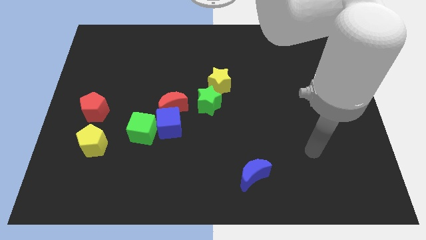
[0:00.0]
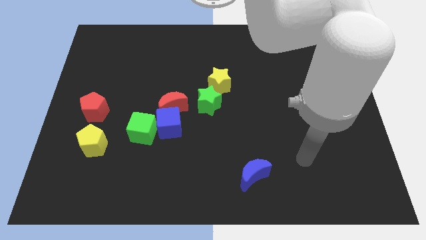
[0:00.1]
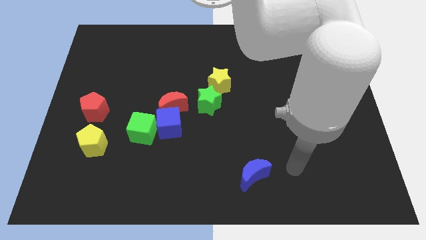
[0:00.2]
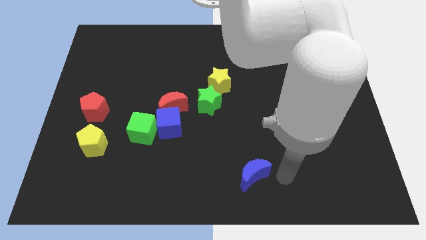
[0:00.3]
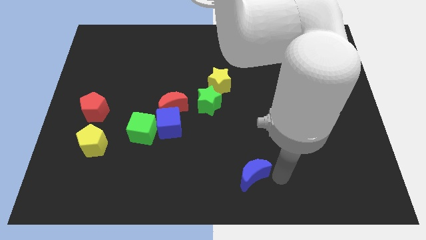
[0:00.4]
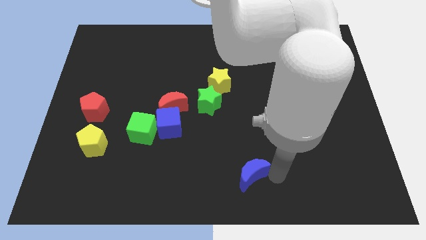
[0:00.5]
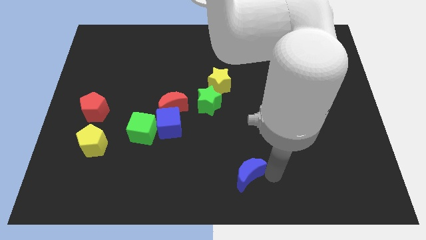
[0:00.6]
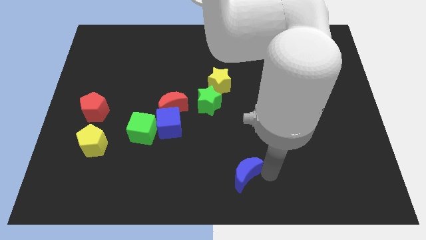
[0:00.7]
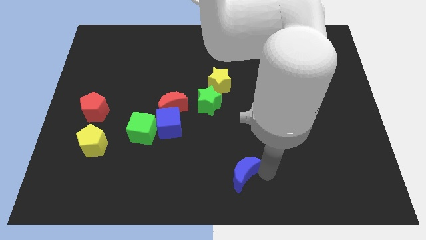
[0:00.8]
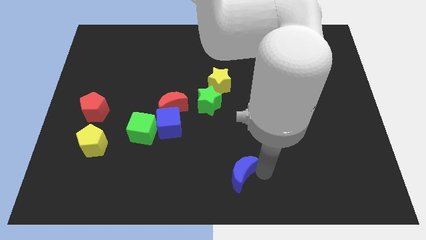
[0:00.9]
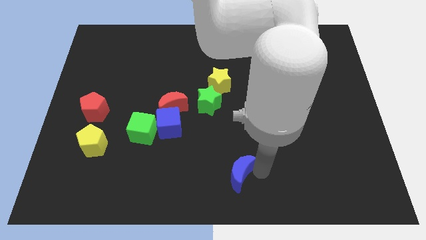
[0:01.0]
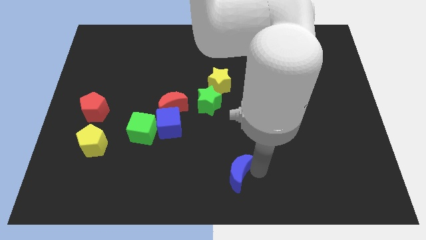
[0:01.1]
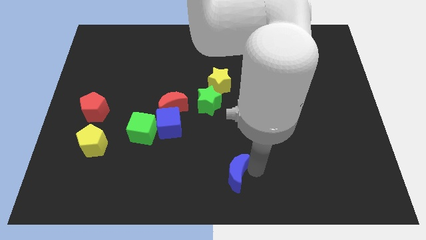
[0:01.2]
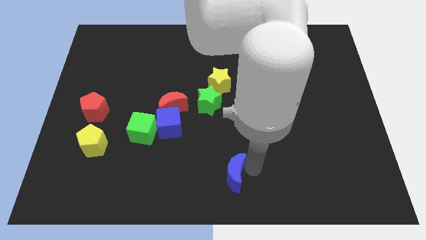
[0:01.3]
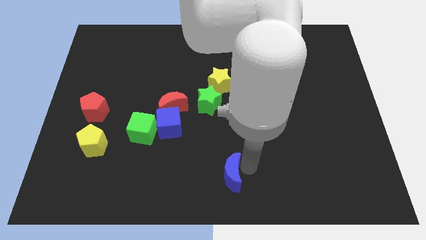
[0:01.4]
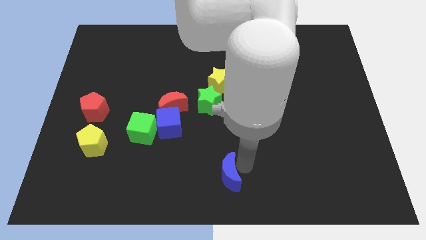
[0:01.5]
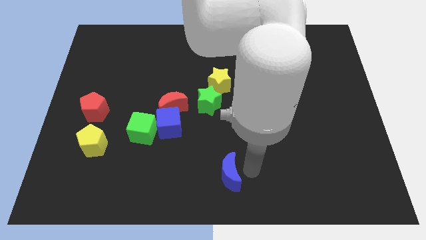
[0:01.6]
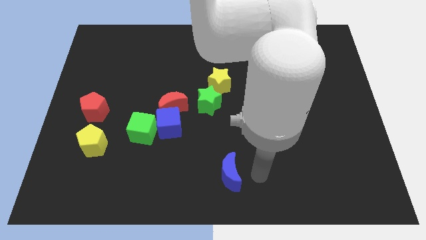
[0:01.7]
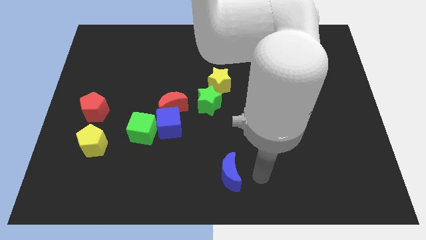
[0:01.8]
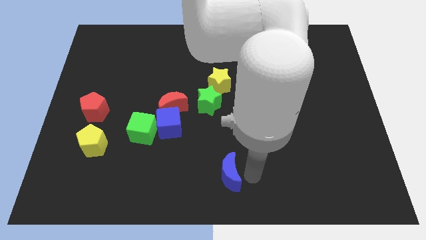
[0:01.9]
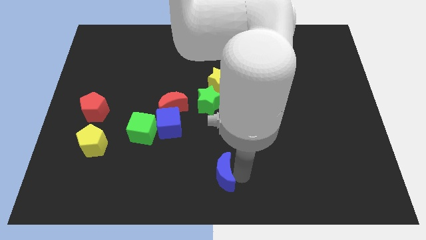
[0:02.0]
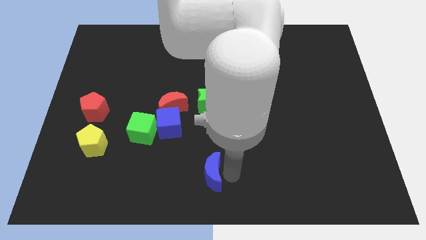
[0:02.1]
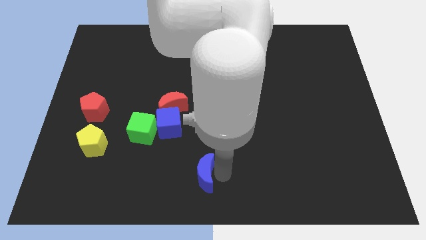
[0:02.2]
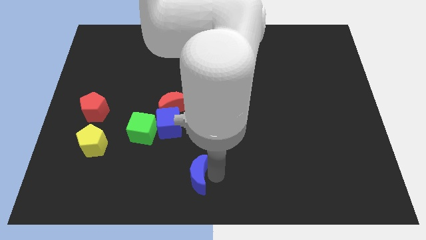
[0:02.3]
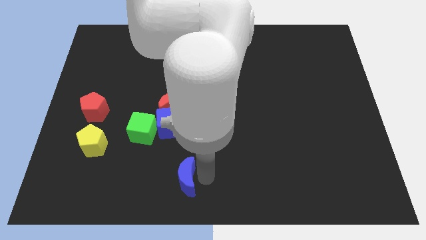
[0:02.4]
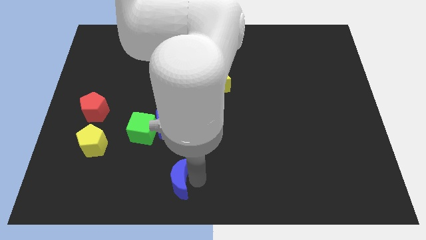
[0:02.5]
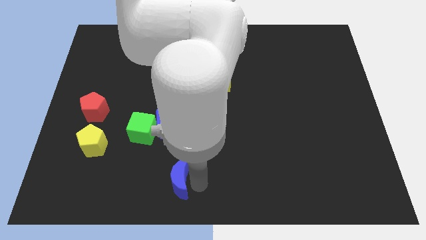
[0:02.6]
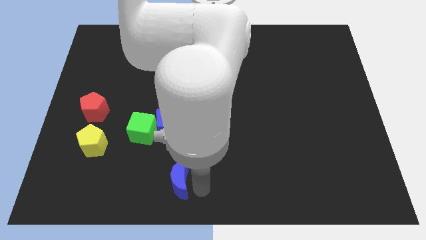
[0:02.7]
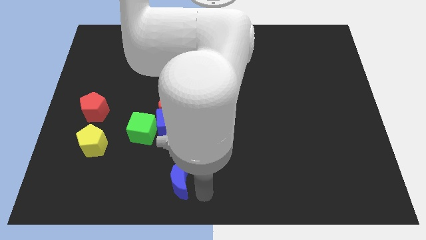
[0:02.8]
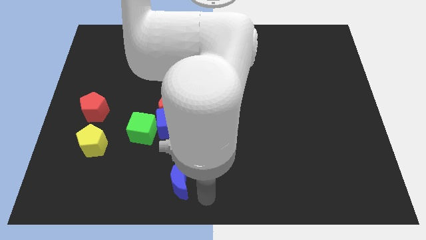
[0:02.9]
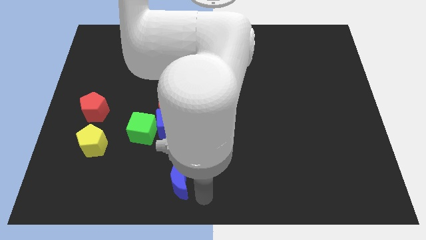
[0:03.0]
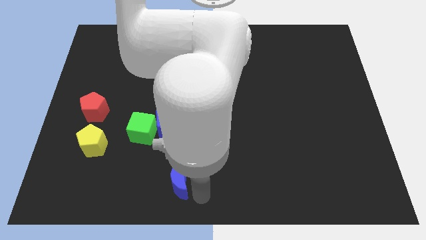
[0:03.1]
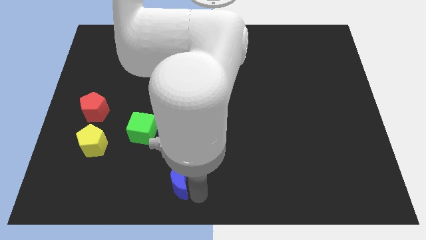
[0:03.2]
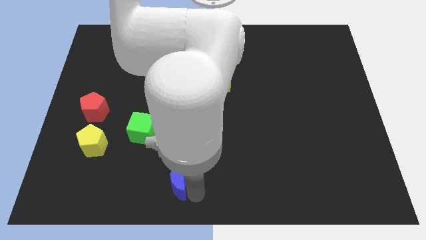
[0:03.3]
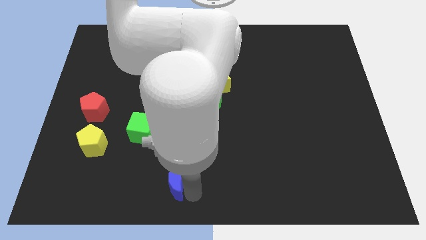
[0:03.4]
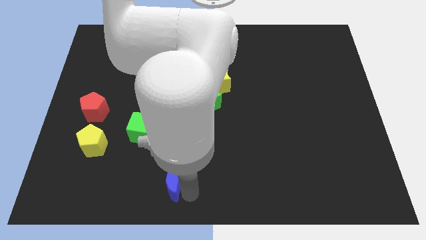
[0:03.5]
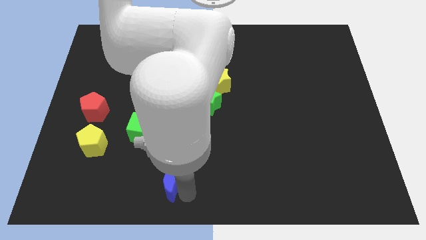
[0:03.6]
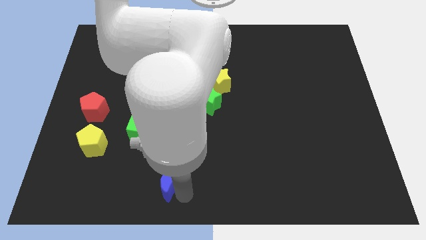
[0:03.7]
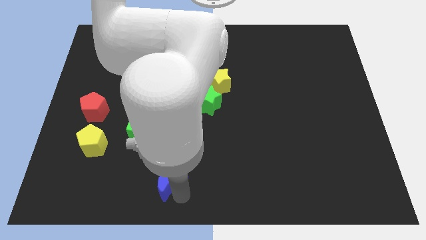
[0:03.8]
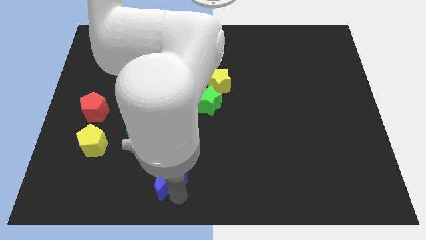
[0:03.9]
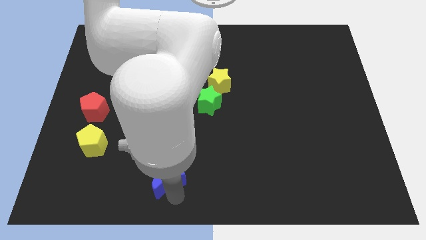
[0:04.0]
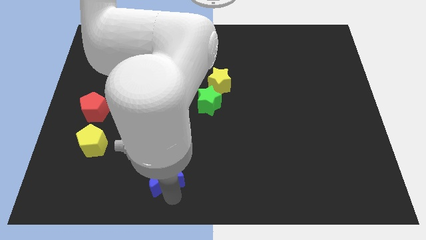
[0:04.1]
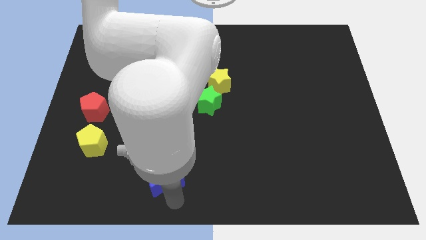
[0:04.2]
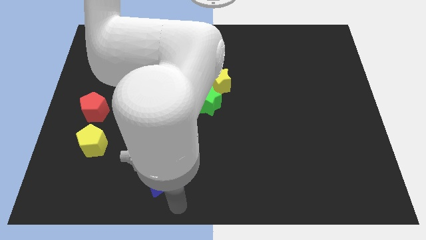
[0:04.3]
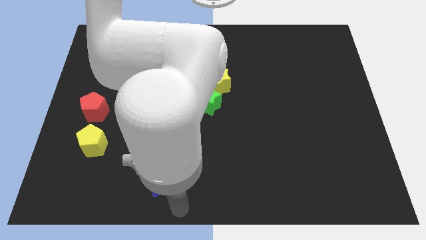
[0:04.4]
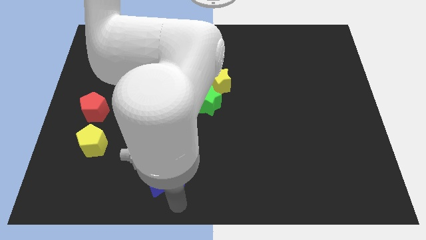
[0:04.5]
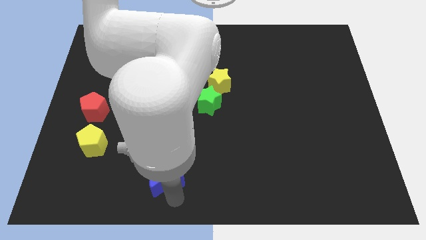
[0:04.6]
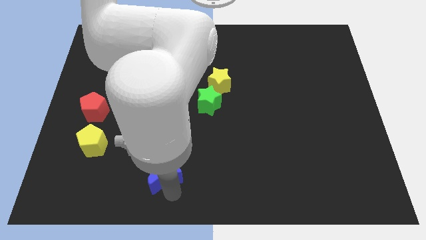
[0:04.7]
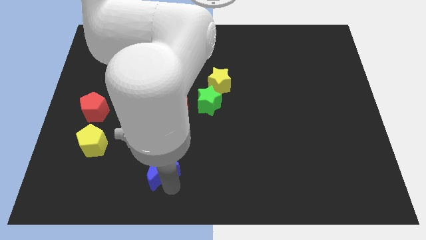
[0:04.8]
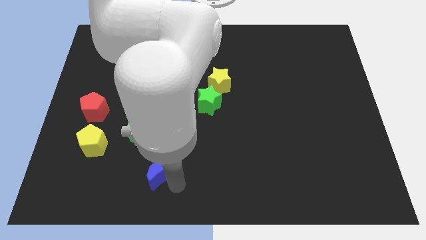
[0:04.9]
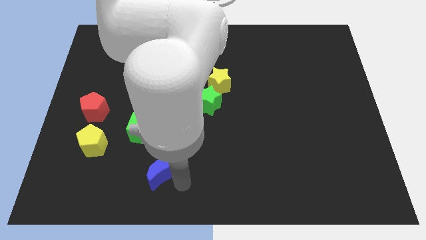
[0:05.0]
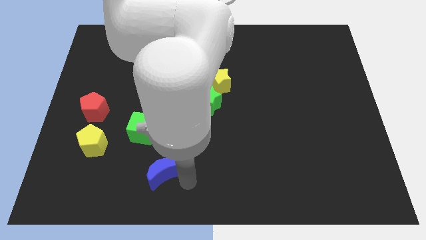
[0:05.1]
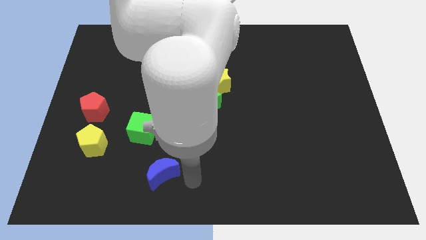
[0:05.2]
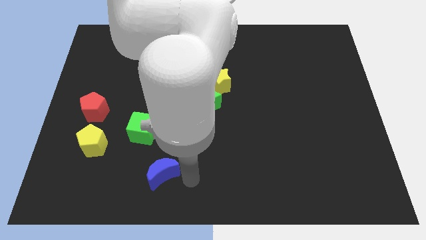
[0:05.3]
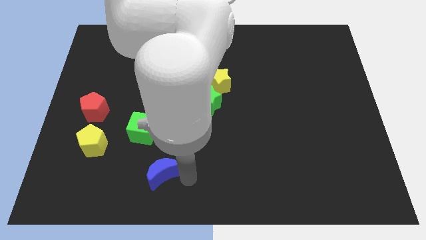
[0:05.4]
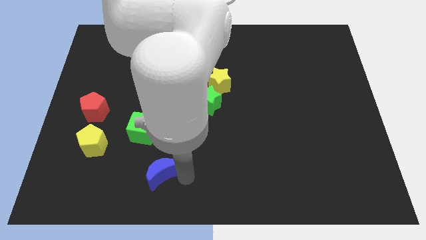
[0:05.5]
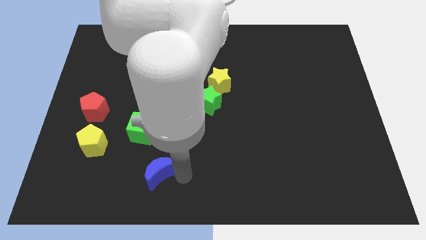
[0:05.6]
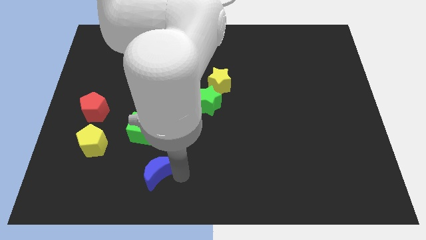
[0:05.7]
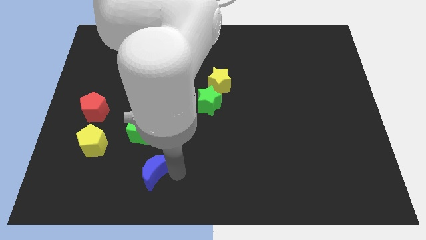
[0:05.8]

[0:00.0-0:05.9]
push the blue moon to the left

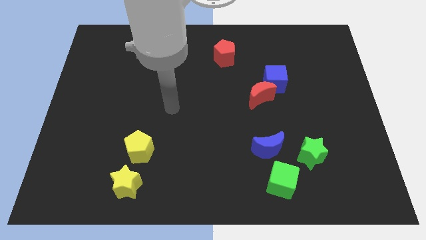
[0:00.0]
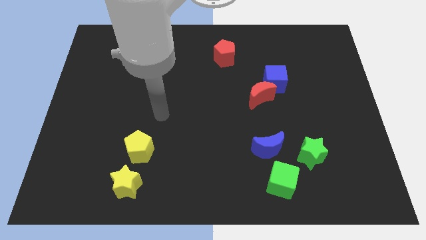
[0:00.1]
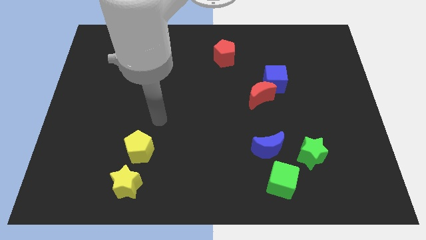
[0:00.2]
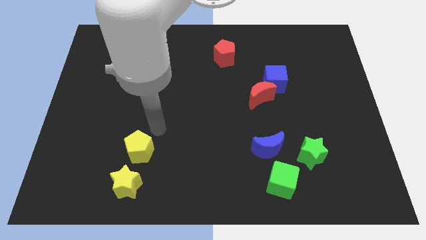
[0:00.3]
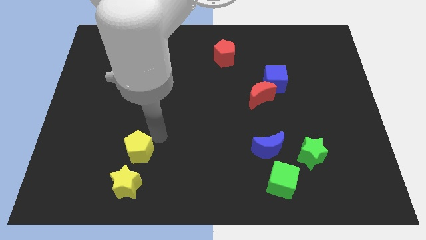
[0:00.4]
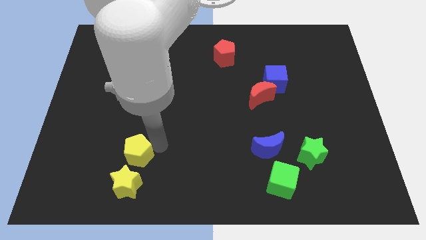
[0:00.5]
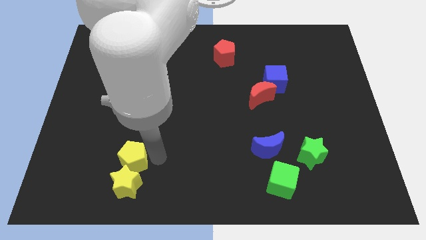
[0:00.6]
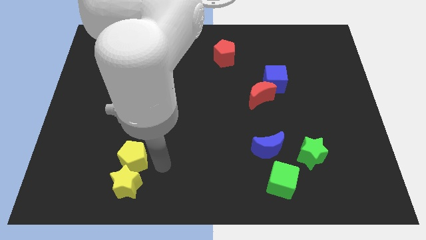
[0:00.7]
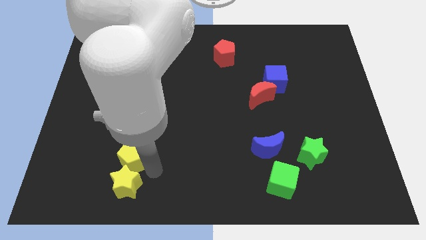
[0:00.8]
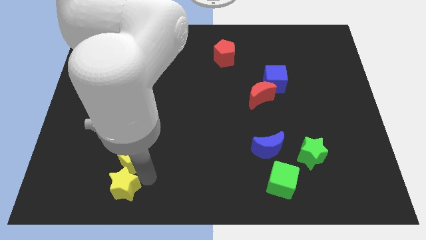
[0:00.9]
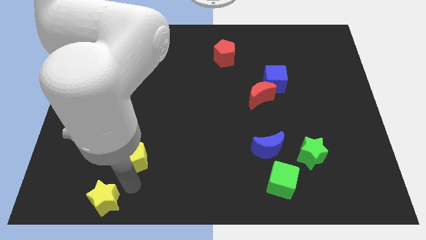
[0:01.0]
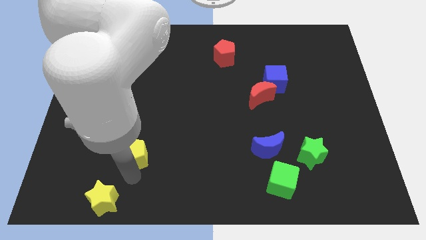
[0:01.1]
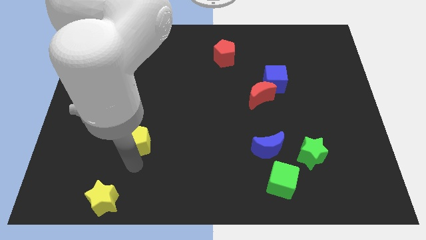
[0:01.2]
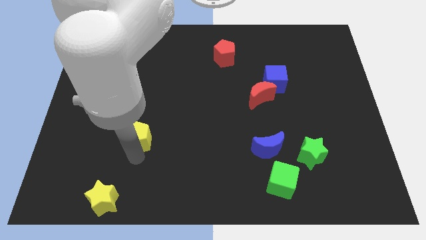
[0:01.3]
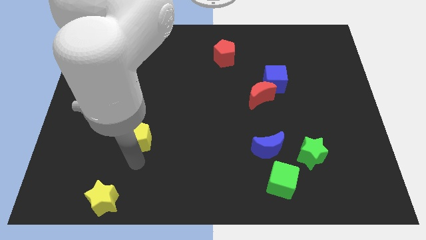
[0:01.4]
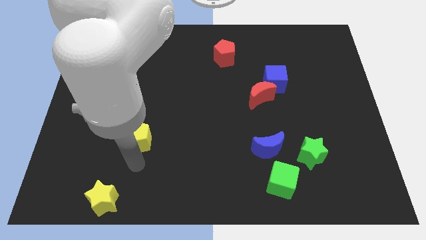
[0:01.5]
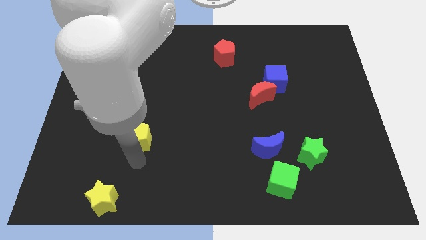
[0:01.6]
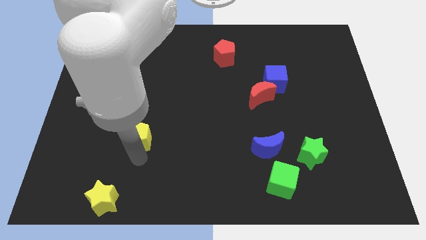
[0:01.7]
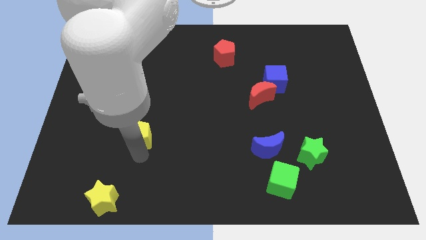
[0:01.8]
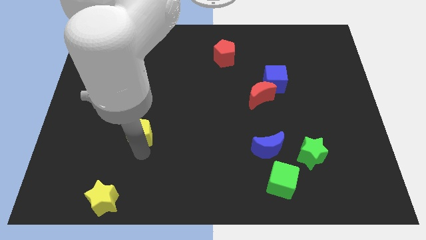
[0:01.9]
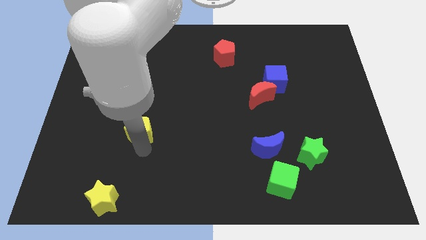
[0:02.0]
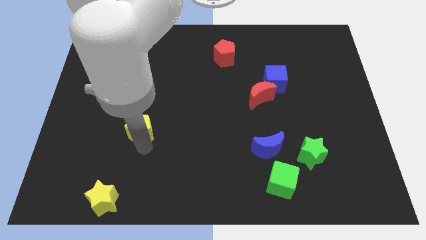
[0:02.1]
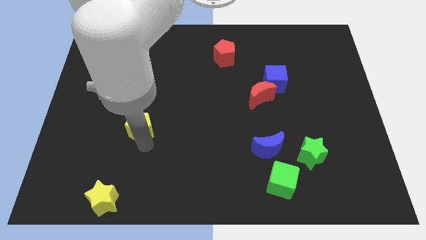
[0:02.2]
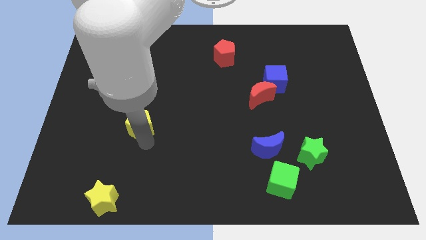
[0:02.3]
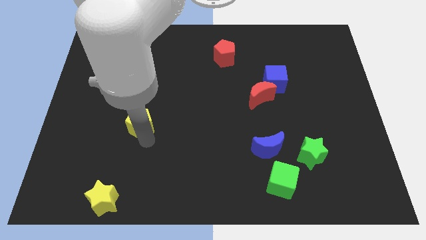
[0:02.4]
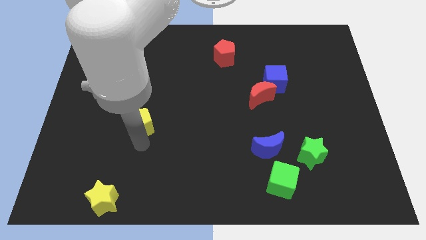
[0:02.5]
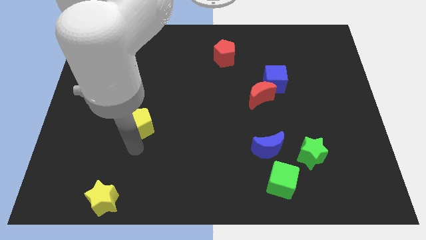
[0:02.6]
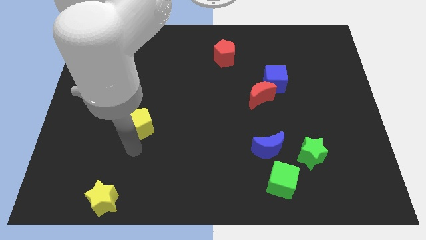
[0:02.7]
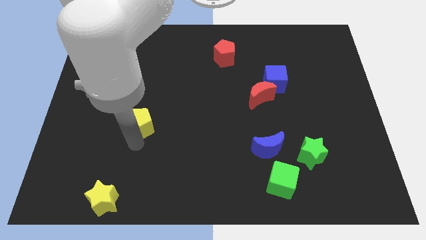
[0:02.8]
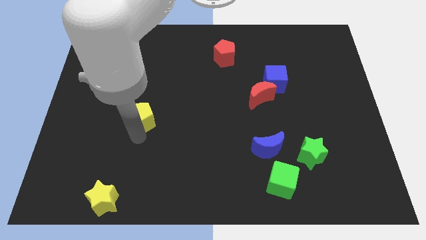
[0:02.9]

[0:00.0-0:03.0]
push the yellow pentagon a little bit upwards
